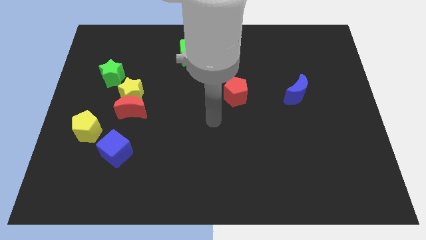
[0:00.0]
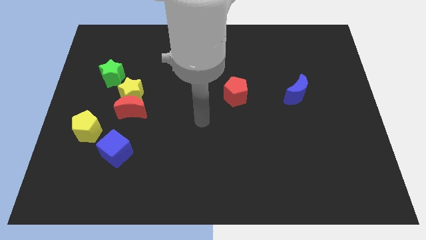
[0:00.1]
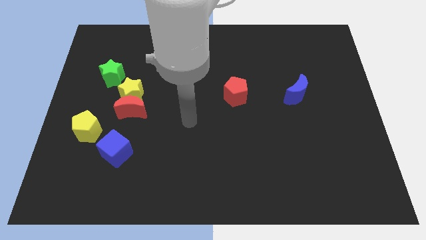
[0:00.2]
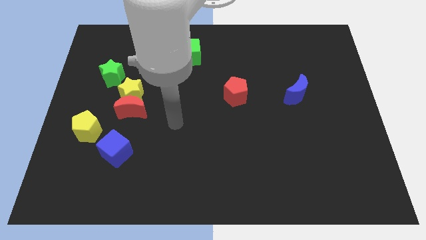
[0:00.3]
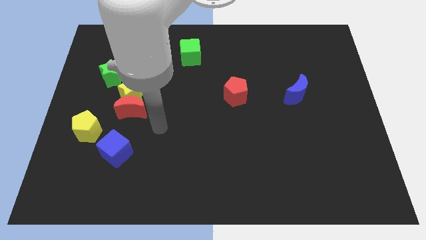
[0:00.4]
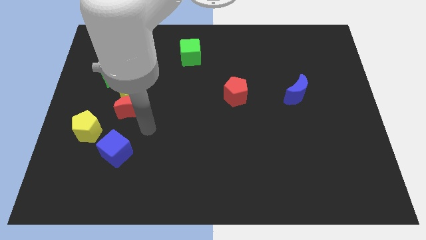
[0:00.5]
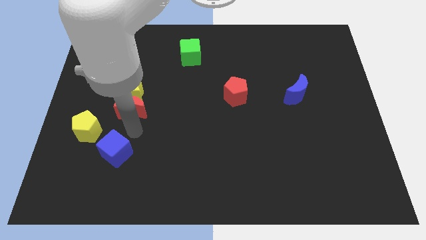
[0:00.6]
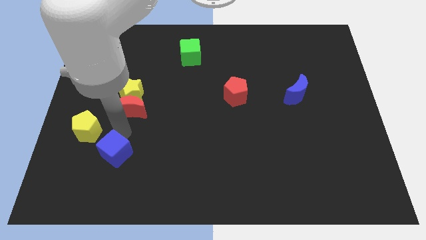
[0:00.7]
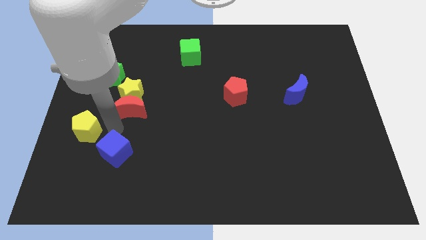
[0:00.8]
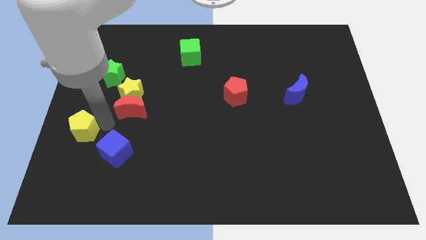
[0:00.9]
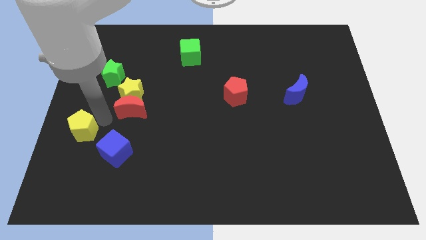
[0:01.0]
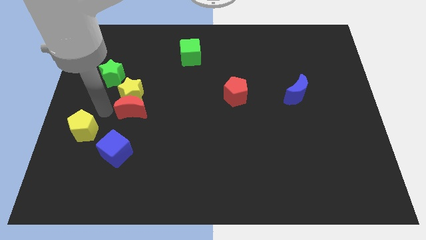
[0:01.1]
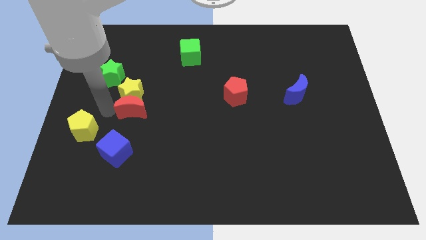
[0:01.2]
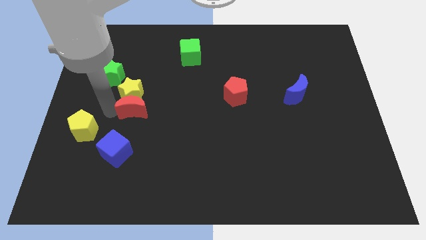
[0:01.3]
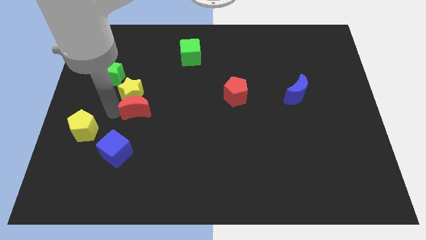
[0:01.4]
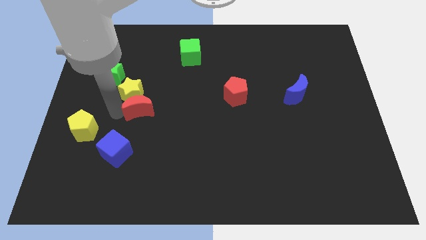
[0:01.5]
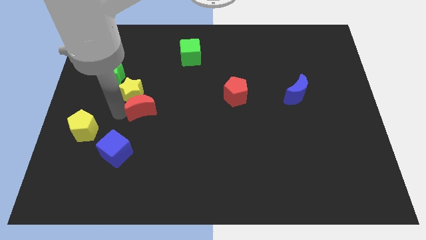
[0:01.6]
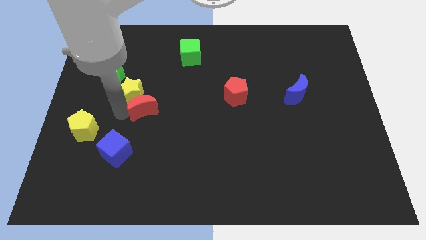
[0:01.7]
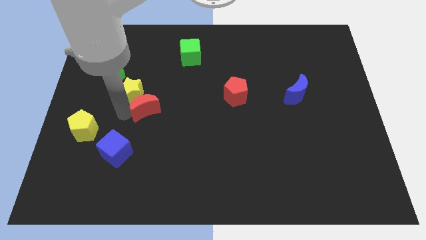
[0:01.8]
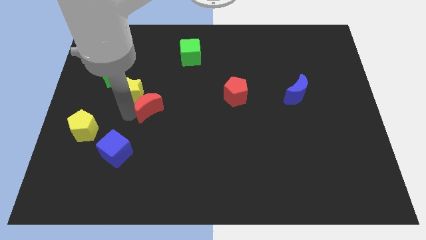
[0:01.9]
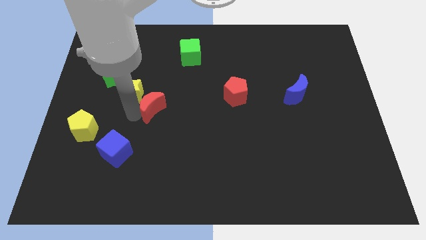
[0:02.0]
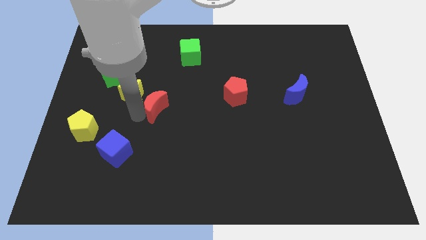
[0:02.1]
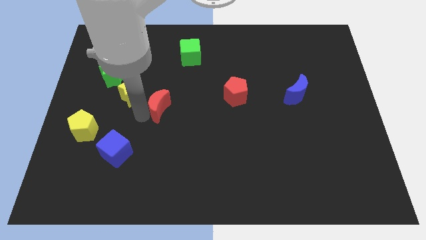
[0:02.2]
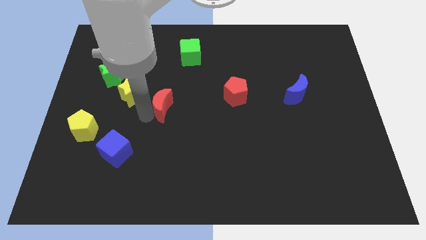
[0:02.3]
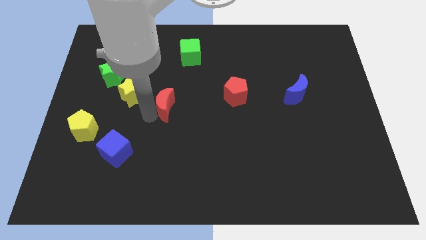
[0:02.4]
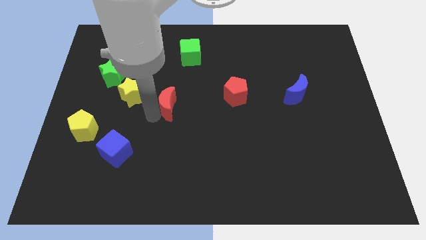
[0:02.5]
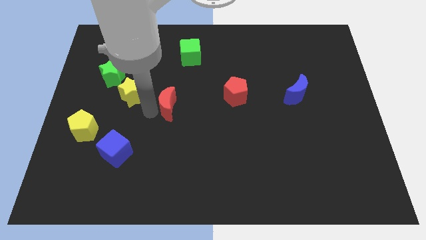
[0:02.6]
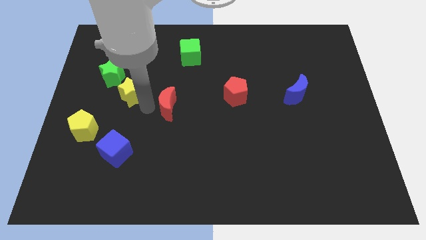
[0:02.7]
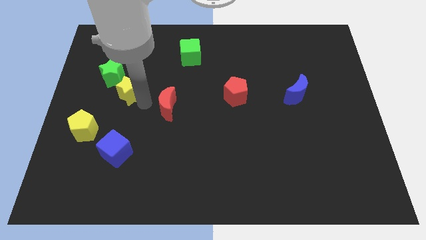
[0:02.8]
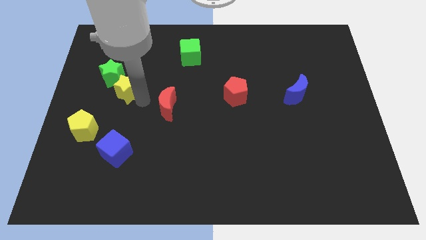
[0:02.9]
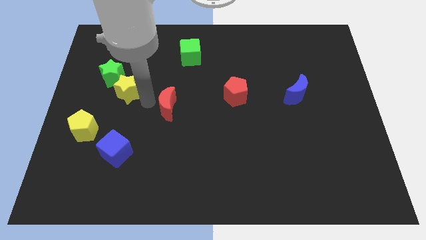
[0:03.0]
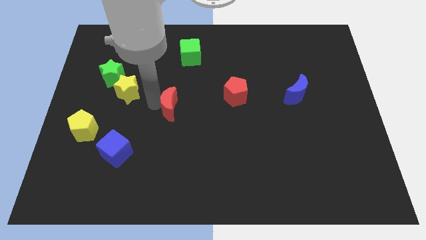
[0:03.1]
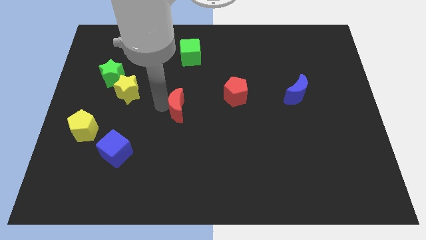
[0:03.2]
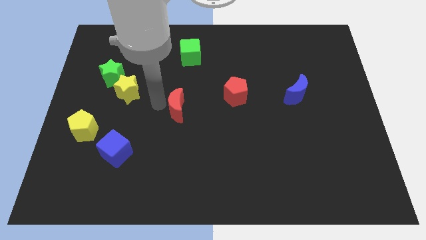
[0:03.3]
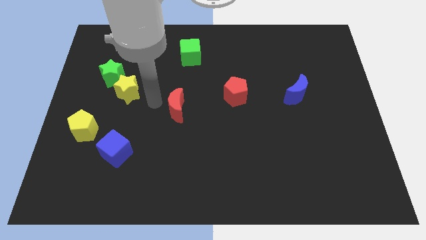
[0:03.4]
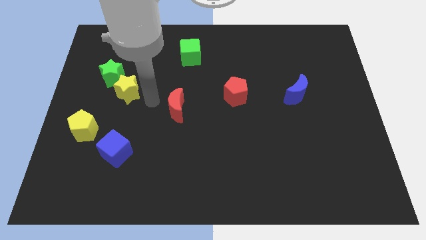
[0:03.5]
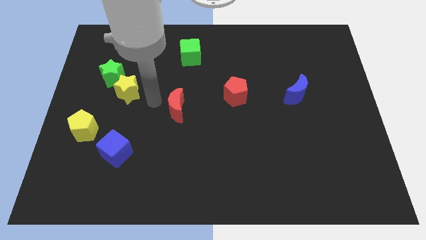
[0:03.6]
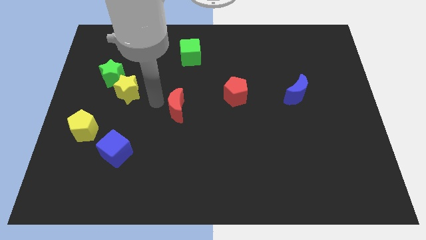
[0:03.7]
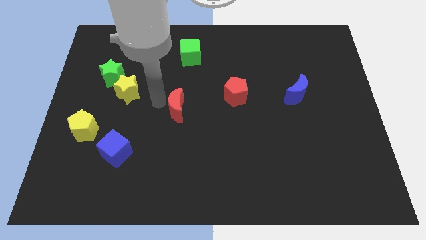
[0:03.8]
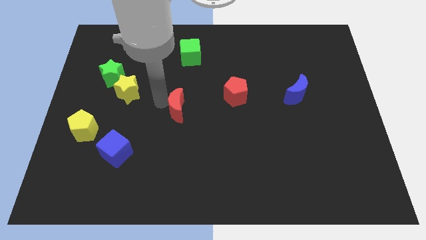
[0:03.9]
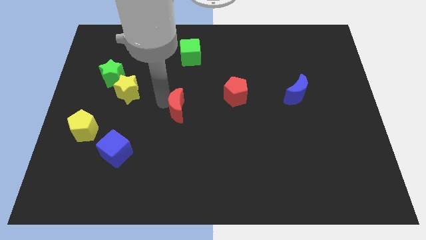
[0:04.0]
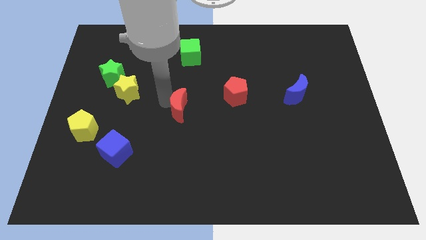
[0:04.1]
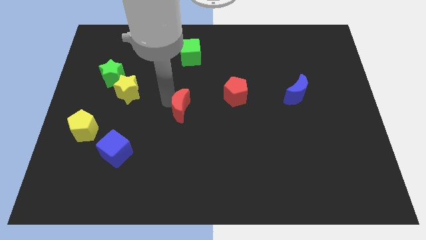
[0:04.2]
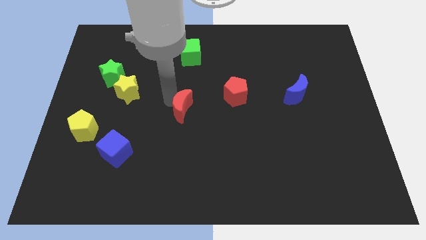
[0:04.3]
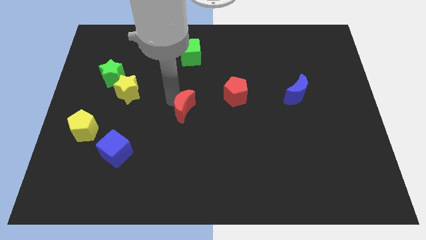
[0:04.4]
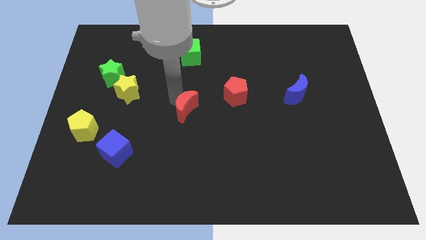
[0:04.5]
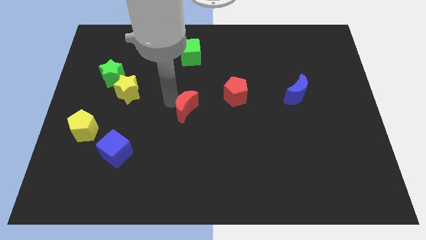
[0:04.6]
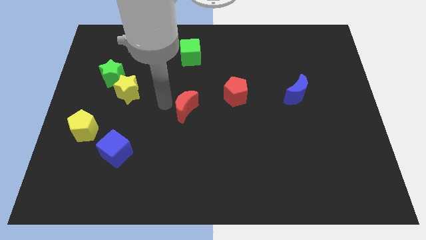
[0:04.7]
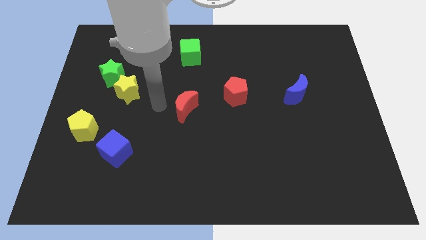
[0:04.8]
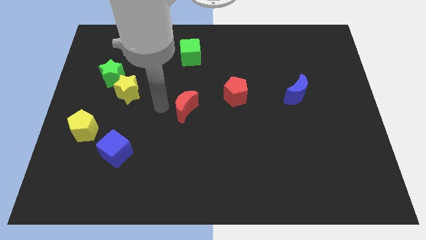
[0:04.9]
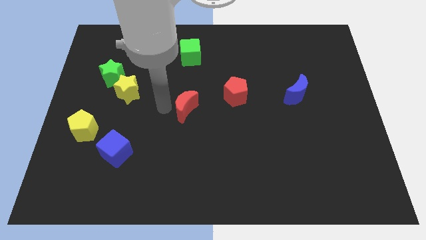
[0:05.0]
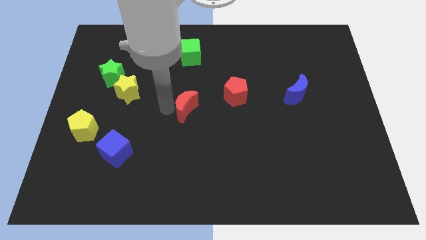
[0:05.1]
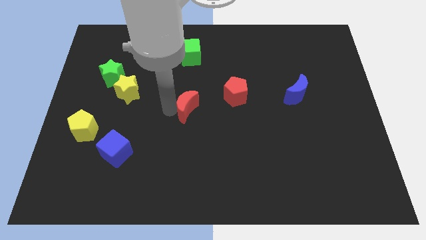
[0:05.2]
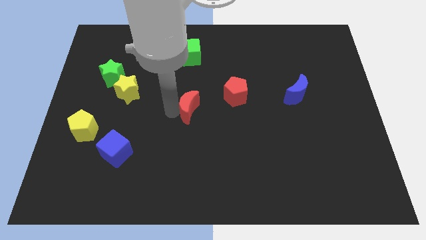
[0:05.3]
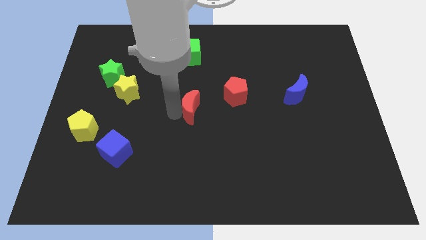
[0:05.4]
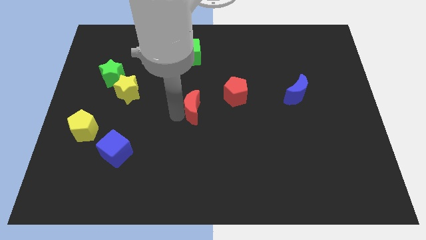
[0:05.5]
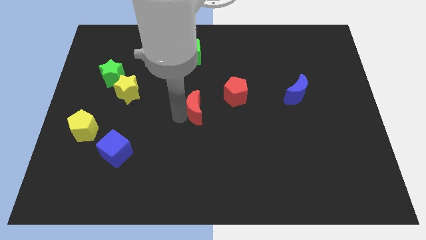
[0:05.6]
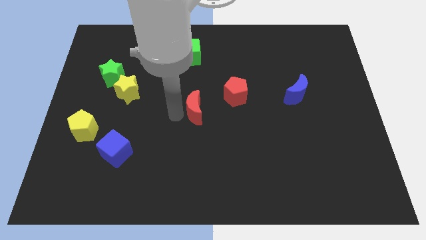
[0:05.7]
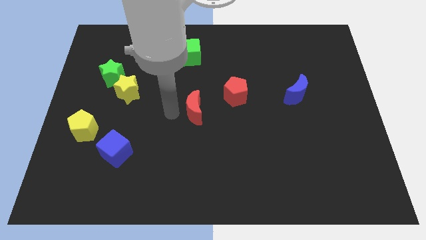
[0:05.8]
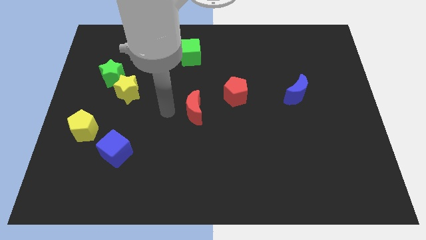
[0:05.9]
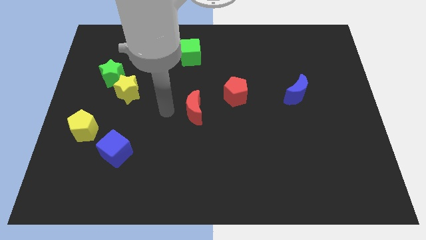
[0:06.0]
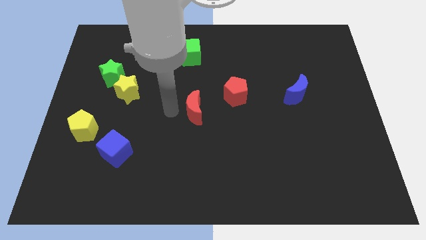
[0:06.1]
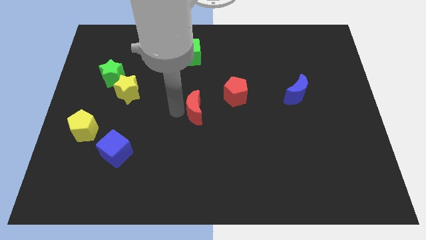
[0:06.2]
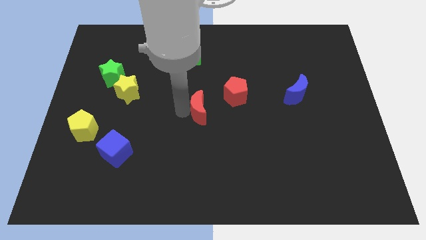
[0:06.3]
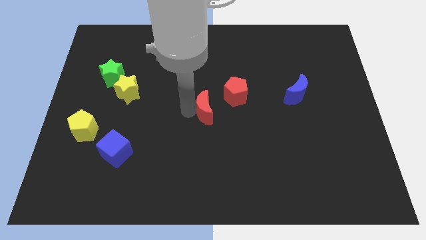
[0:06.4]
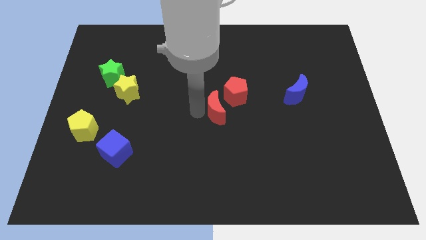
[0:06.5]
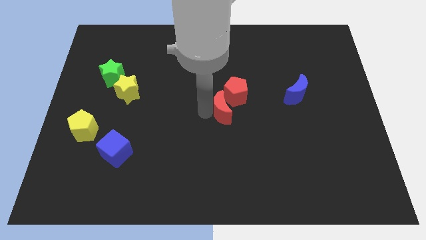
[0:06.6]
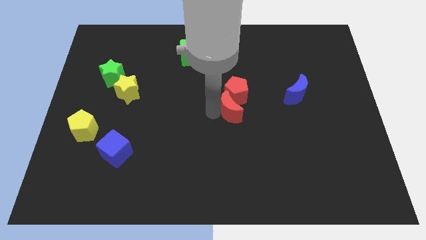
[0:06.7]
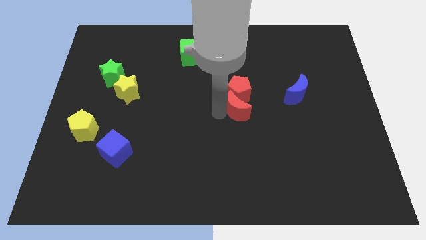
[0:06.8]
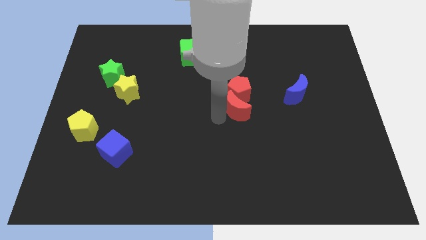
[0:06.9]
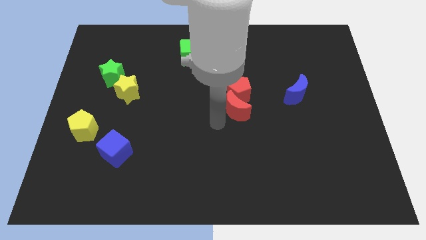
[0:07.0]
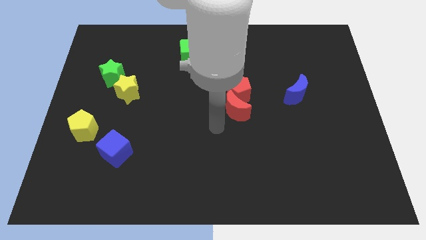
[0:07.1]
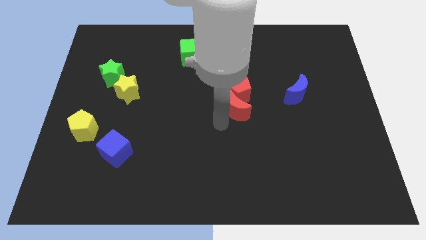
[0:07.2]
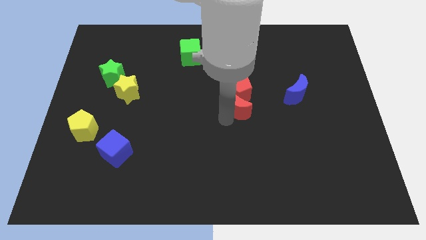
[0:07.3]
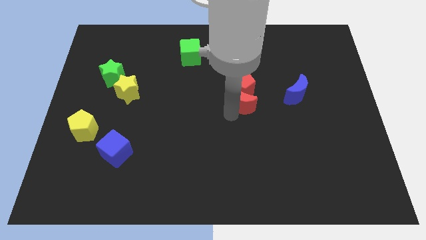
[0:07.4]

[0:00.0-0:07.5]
push the red moon left of the blue moon
